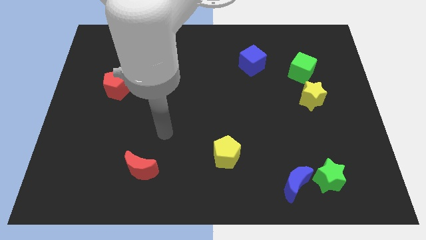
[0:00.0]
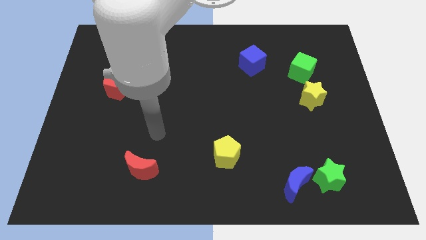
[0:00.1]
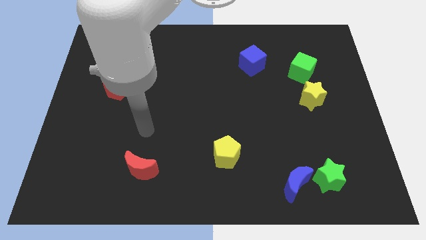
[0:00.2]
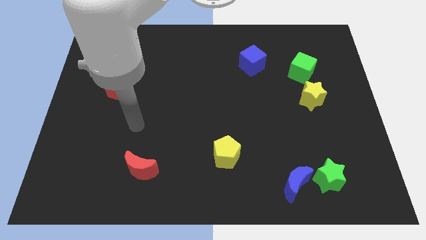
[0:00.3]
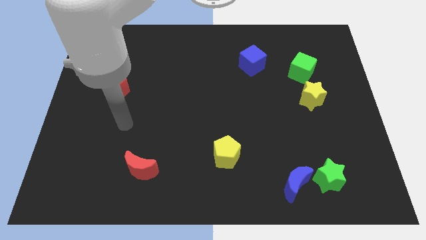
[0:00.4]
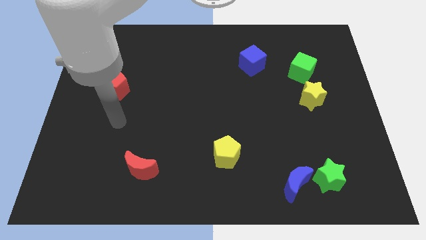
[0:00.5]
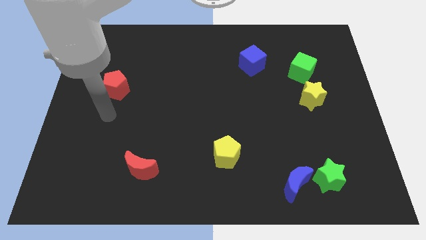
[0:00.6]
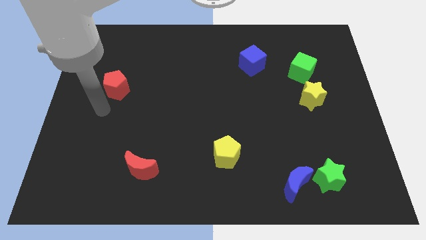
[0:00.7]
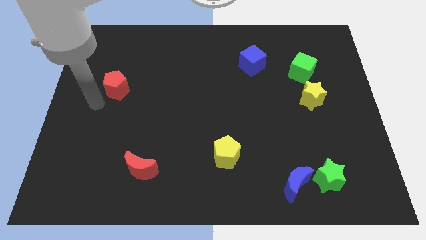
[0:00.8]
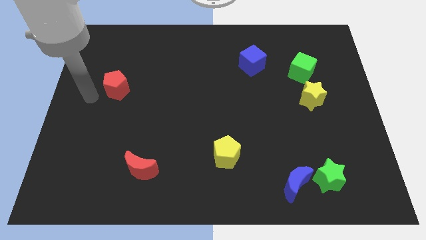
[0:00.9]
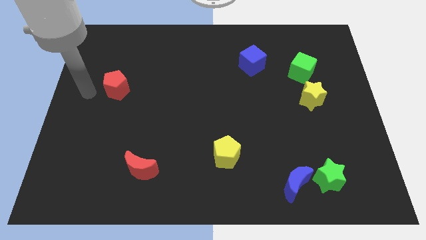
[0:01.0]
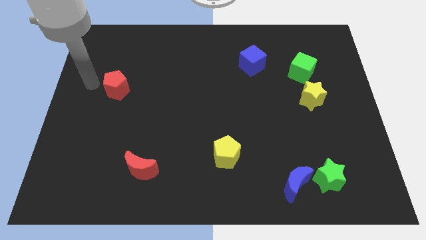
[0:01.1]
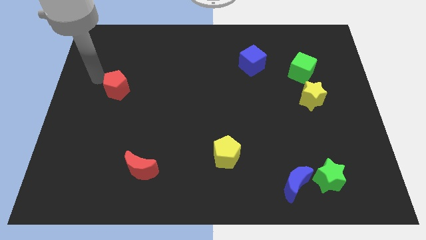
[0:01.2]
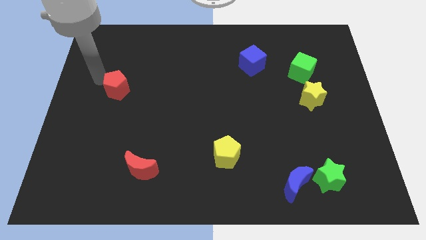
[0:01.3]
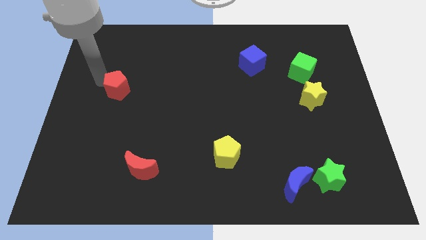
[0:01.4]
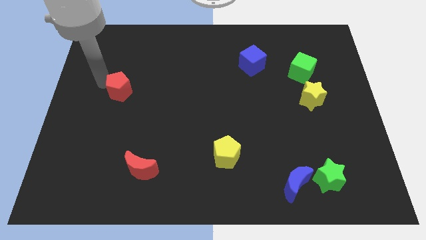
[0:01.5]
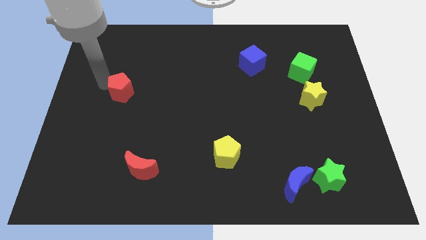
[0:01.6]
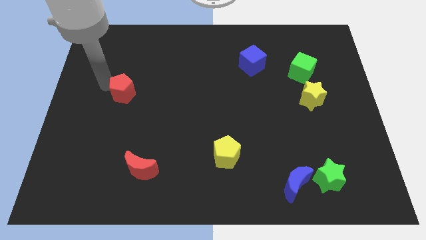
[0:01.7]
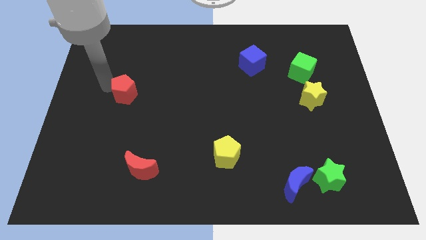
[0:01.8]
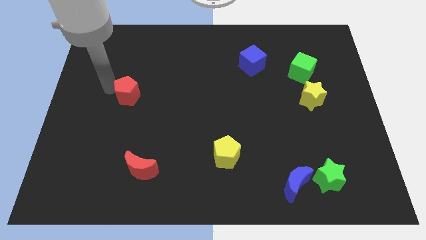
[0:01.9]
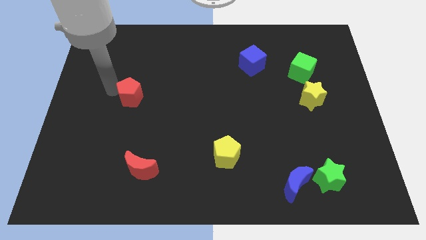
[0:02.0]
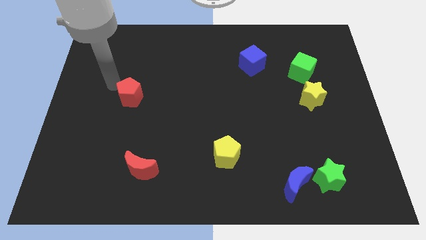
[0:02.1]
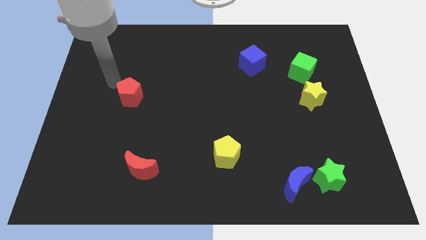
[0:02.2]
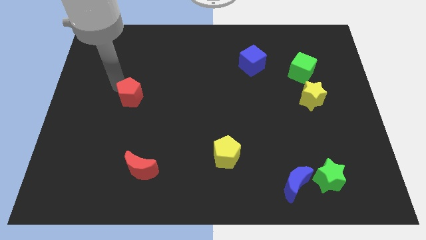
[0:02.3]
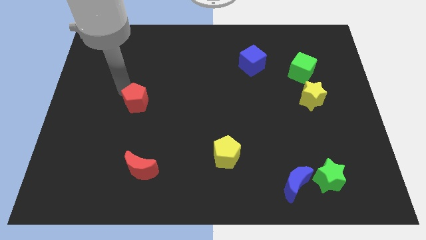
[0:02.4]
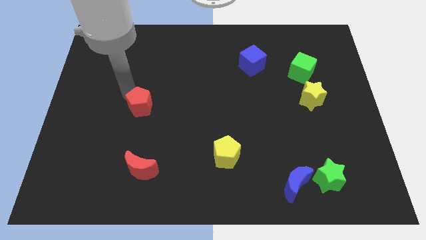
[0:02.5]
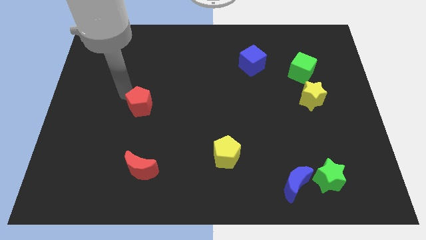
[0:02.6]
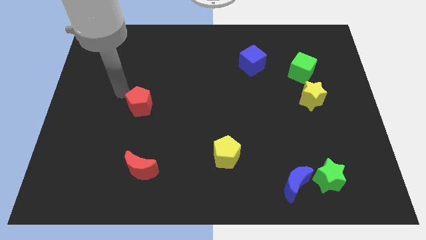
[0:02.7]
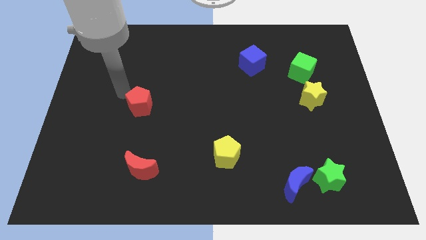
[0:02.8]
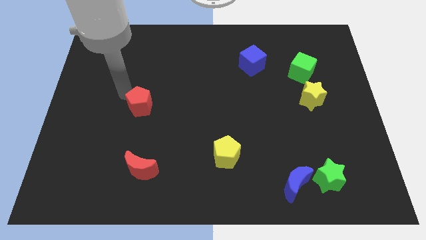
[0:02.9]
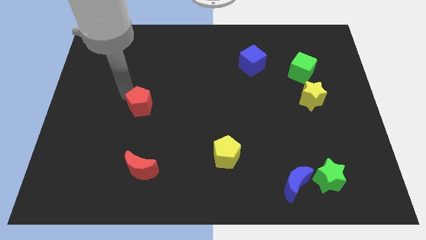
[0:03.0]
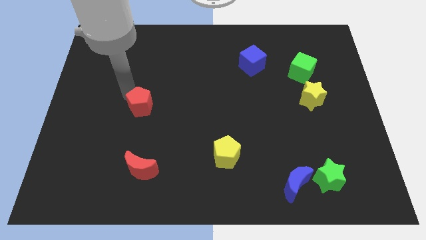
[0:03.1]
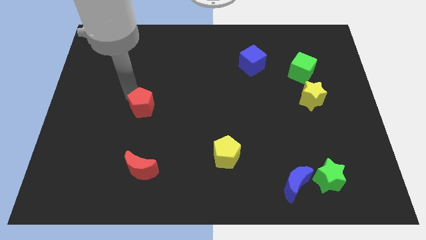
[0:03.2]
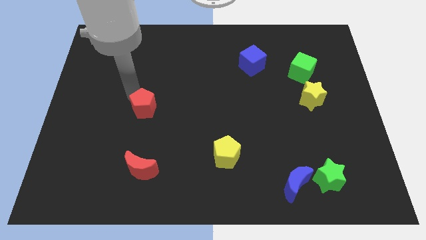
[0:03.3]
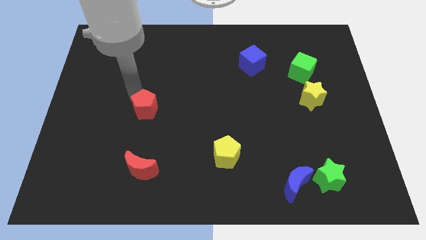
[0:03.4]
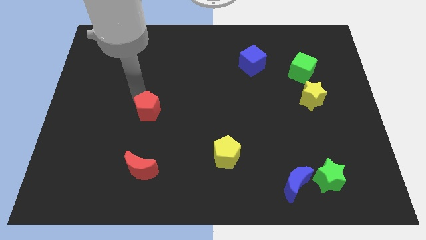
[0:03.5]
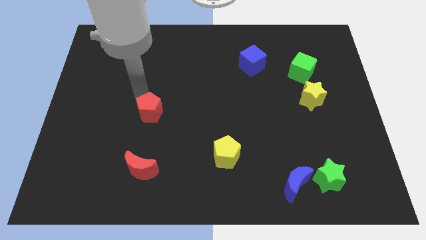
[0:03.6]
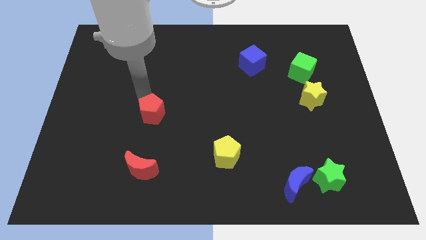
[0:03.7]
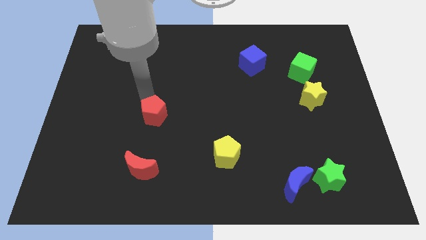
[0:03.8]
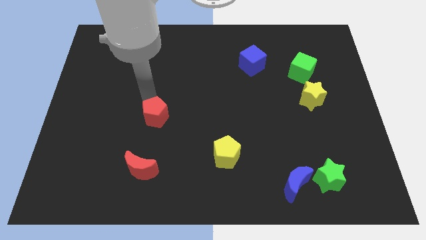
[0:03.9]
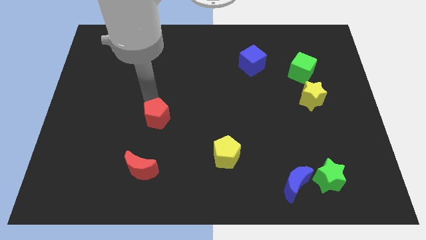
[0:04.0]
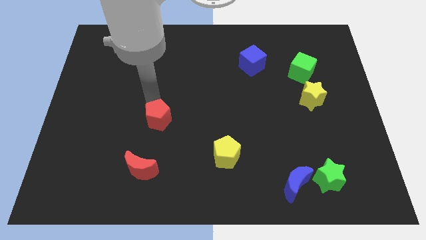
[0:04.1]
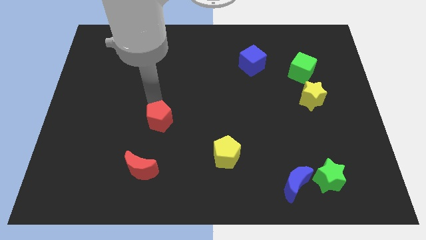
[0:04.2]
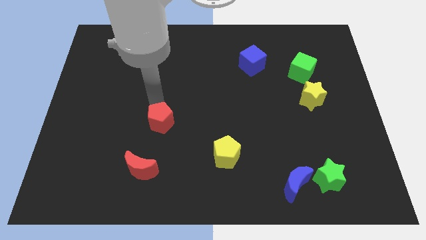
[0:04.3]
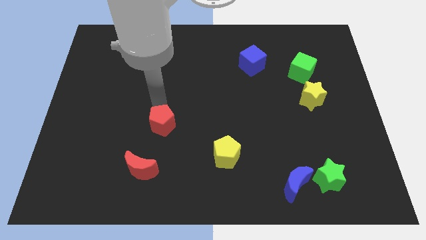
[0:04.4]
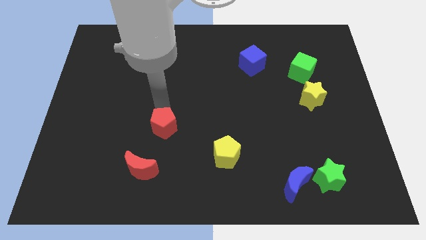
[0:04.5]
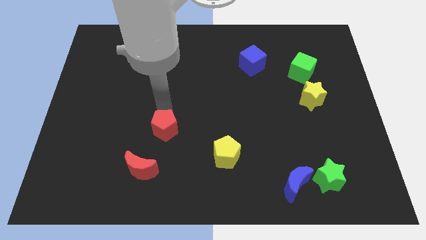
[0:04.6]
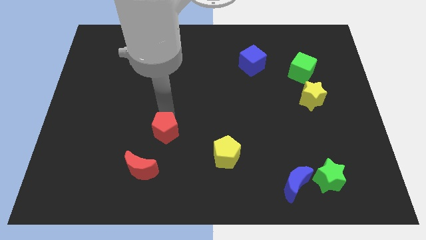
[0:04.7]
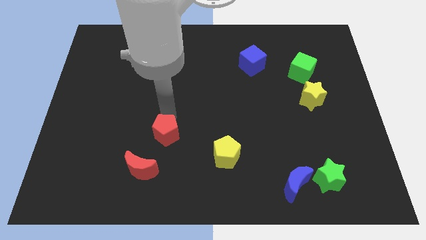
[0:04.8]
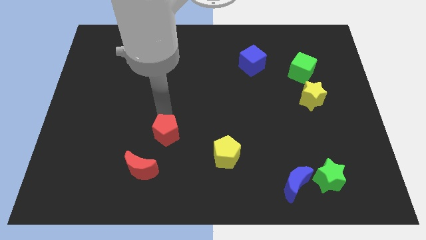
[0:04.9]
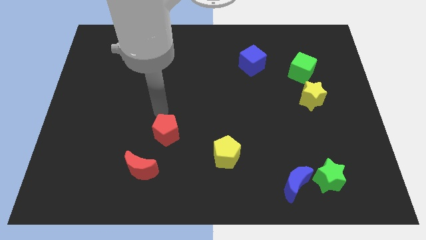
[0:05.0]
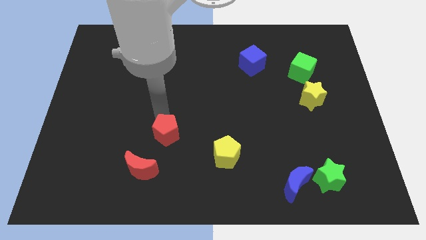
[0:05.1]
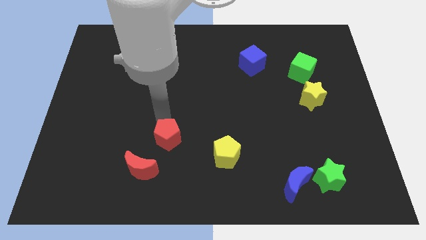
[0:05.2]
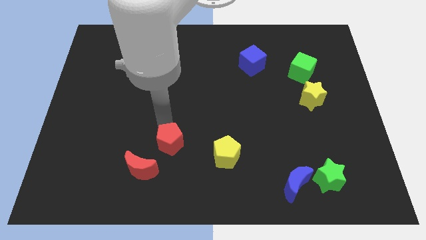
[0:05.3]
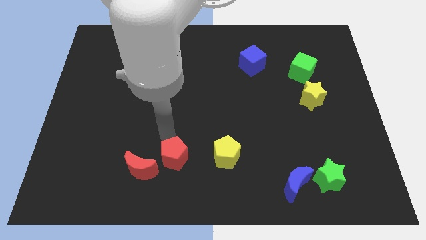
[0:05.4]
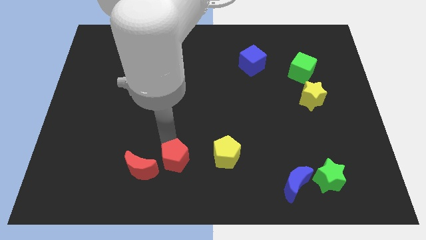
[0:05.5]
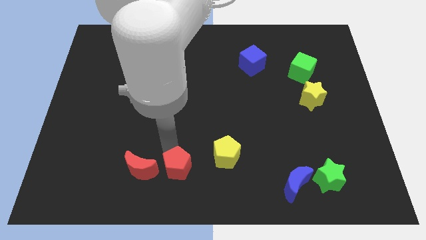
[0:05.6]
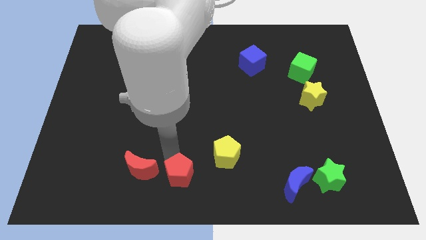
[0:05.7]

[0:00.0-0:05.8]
push the red pentagon diagonally down and to the left of the yellow pentagon

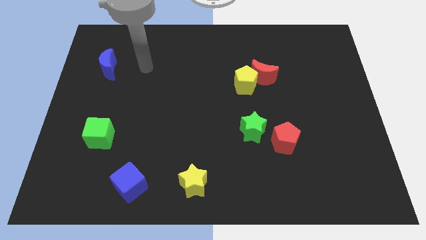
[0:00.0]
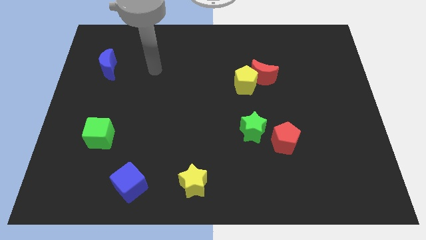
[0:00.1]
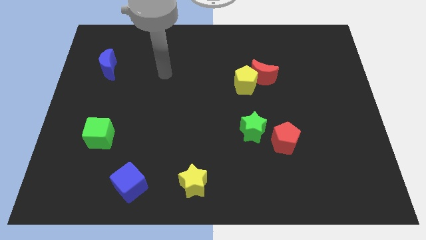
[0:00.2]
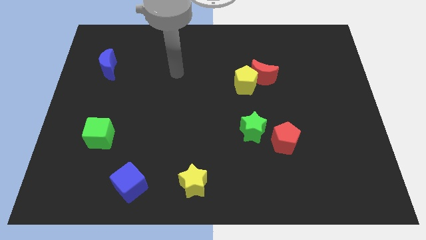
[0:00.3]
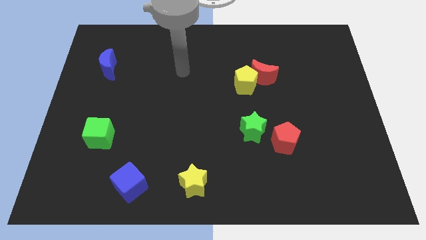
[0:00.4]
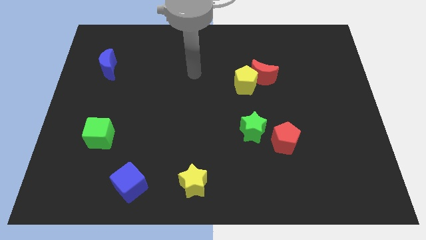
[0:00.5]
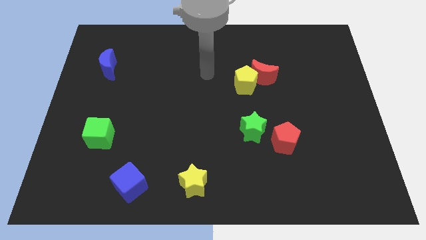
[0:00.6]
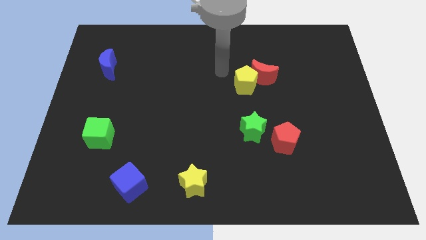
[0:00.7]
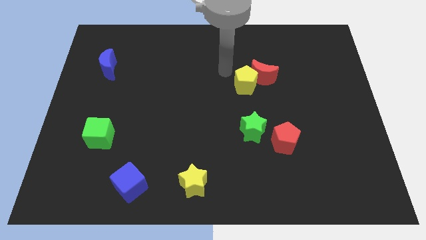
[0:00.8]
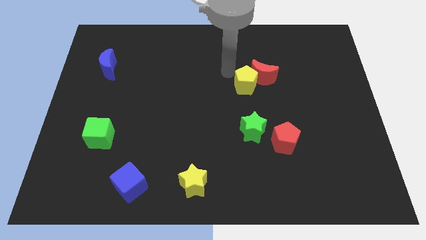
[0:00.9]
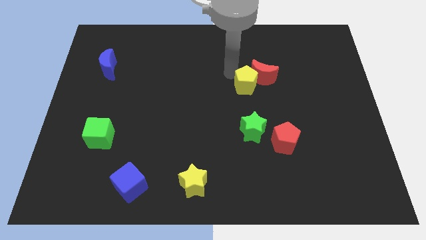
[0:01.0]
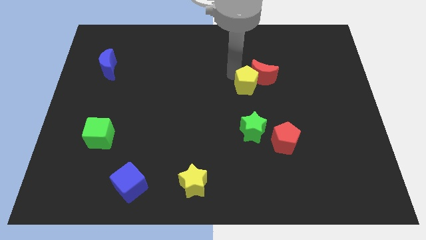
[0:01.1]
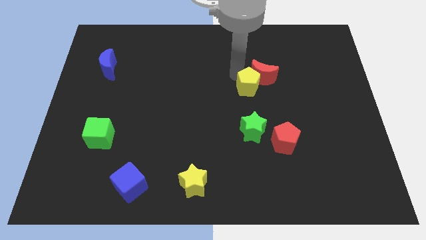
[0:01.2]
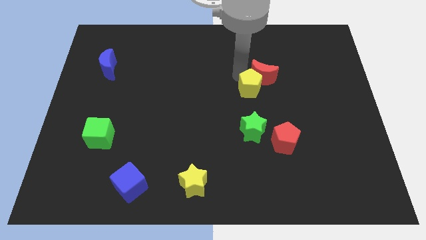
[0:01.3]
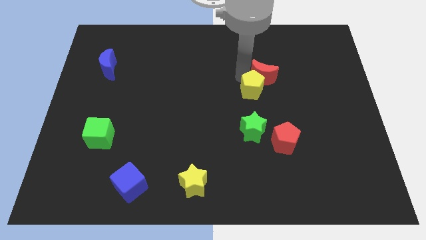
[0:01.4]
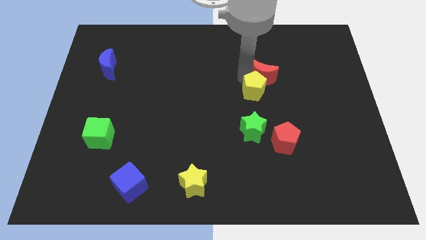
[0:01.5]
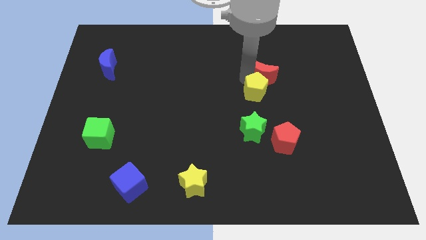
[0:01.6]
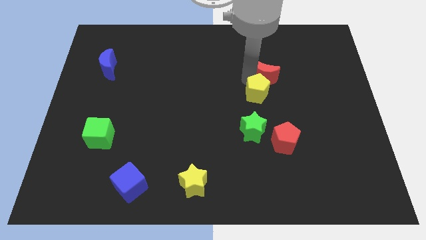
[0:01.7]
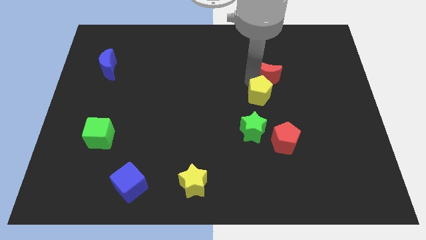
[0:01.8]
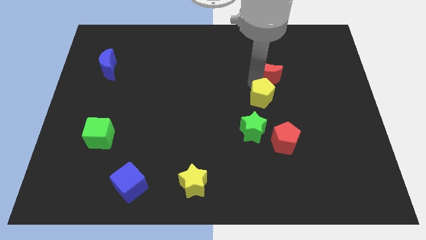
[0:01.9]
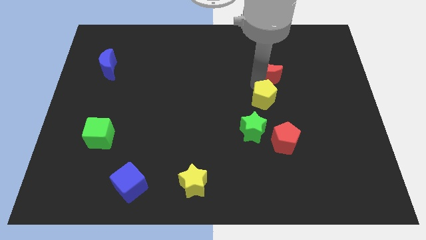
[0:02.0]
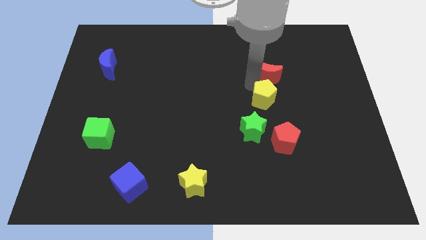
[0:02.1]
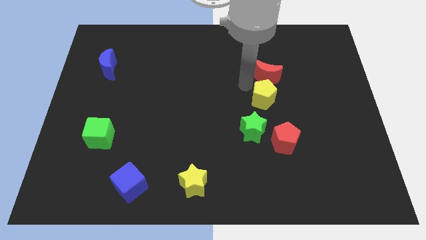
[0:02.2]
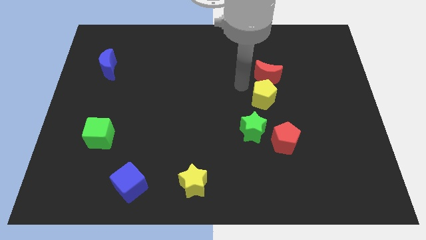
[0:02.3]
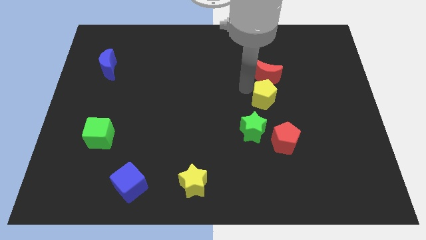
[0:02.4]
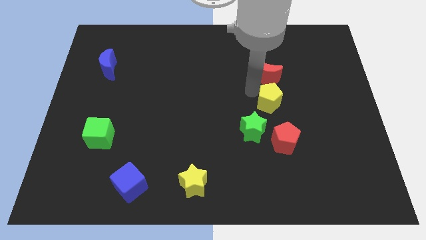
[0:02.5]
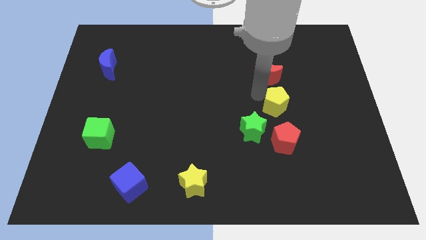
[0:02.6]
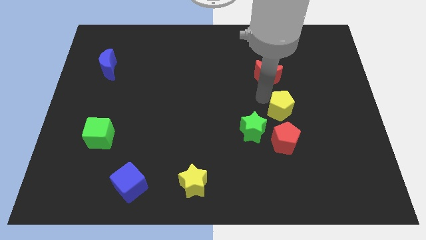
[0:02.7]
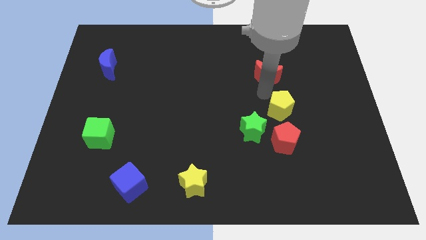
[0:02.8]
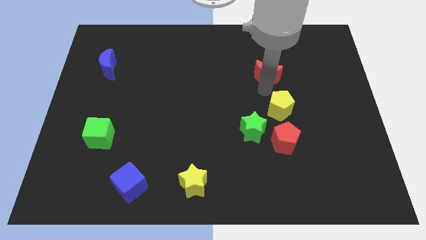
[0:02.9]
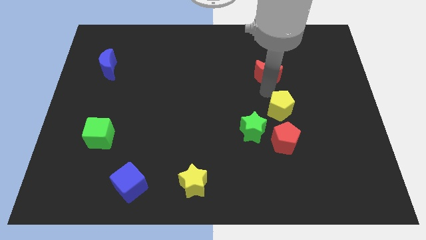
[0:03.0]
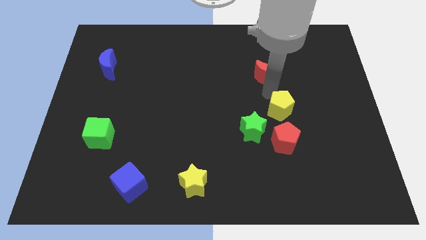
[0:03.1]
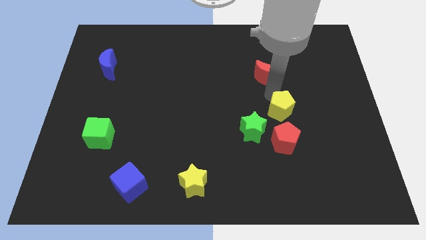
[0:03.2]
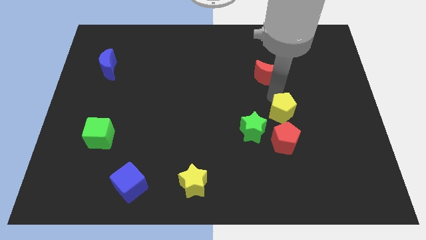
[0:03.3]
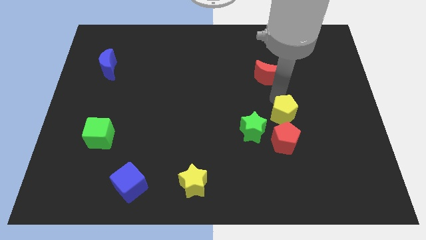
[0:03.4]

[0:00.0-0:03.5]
move the yellow pentagon just right of the green star
